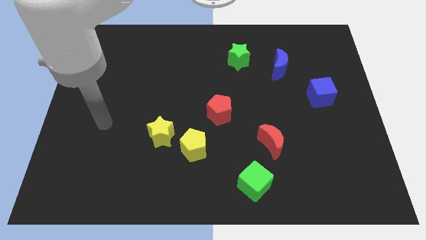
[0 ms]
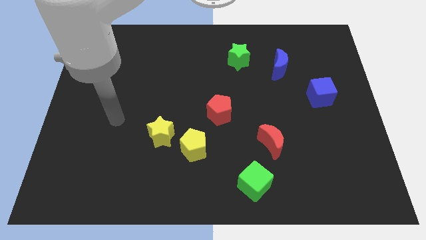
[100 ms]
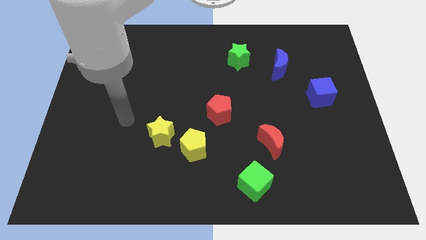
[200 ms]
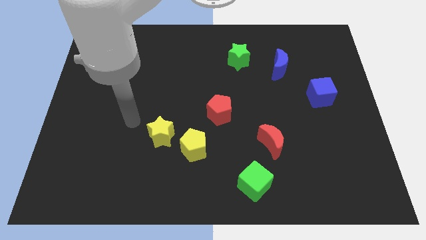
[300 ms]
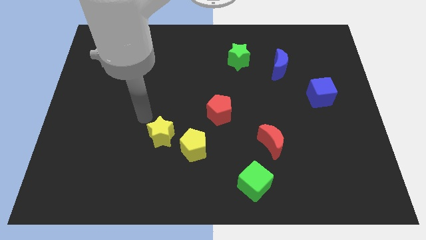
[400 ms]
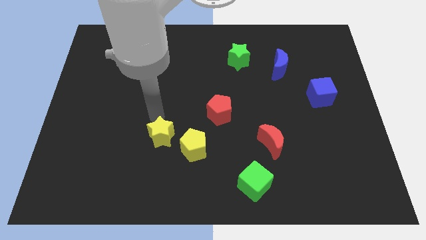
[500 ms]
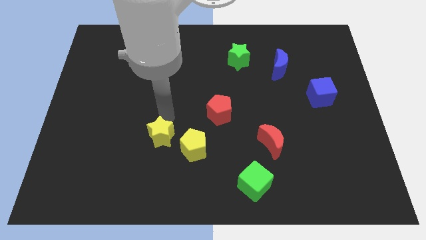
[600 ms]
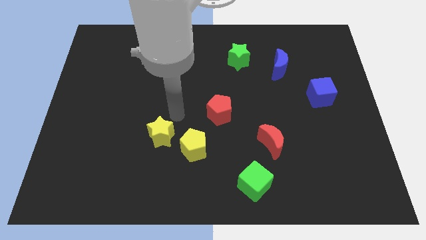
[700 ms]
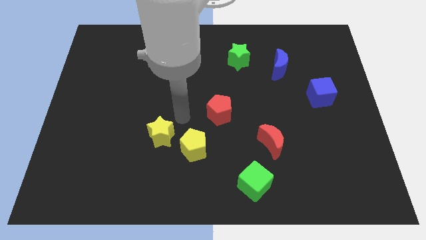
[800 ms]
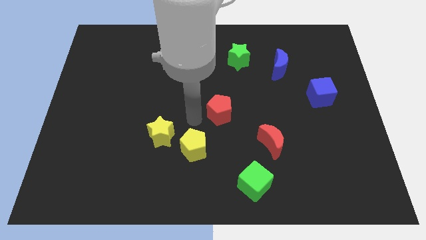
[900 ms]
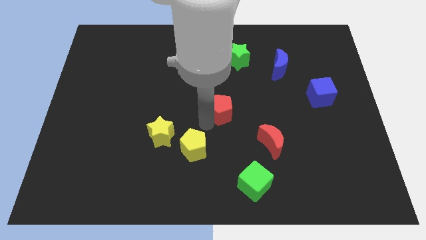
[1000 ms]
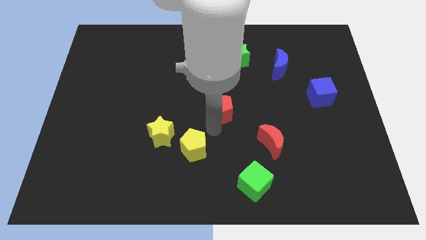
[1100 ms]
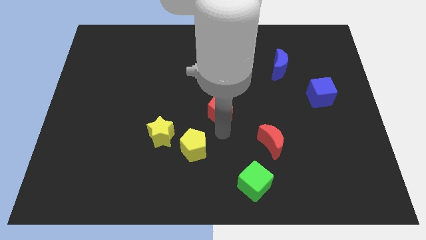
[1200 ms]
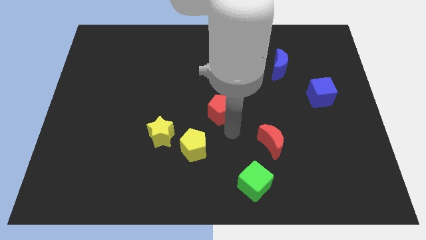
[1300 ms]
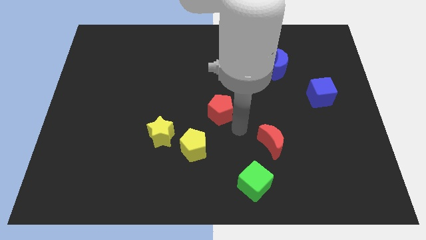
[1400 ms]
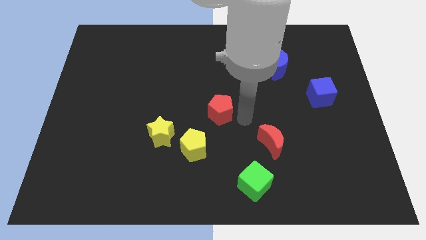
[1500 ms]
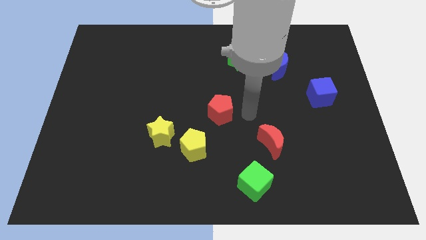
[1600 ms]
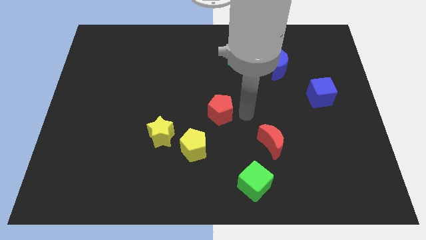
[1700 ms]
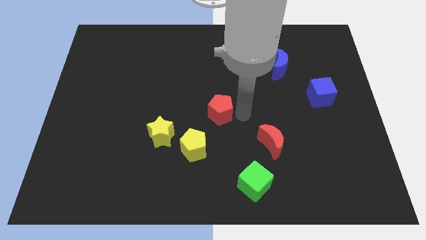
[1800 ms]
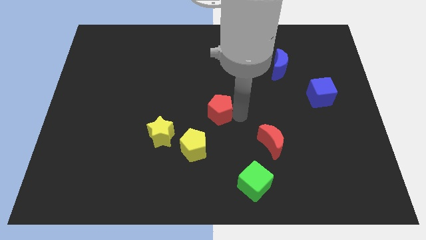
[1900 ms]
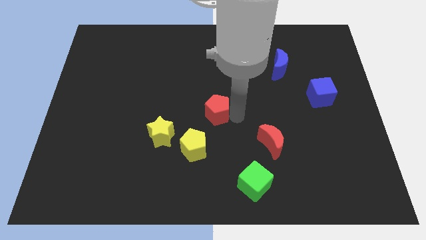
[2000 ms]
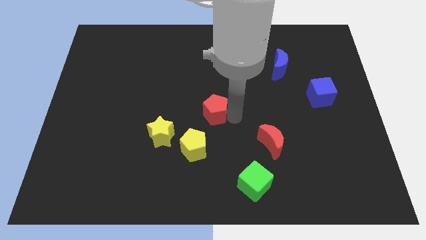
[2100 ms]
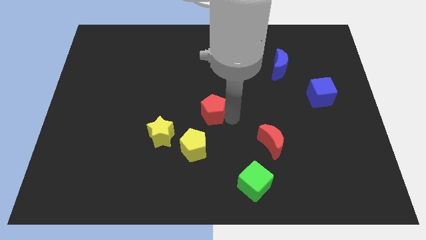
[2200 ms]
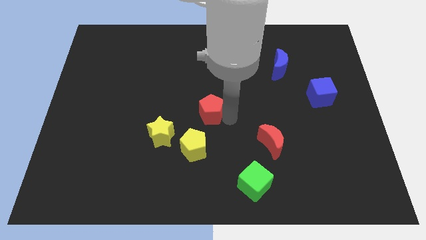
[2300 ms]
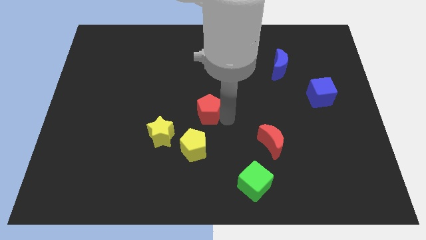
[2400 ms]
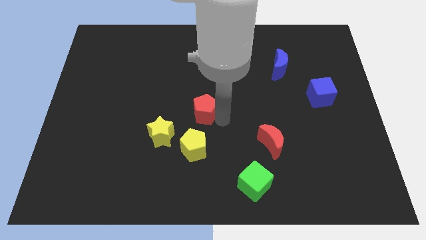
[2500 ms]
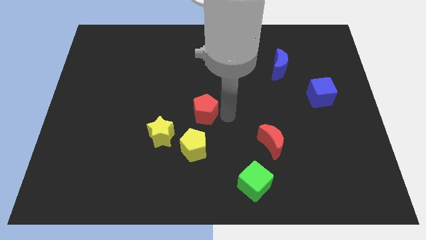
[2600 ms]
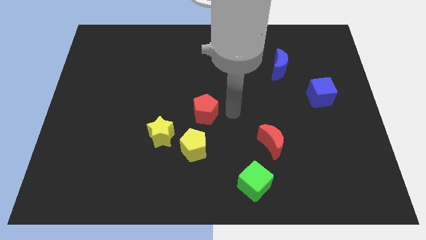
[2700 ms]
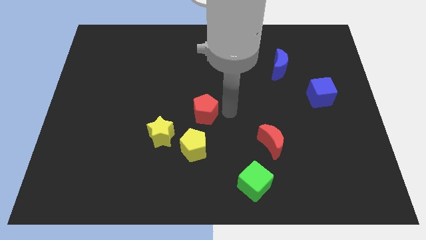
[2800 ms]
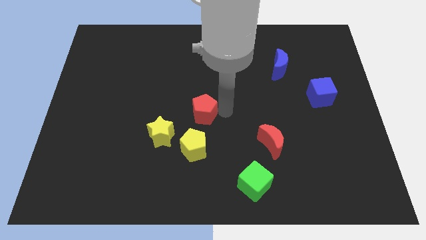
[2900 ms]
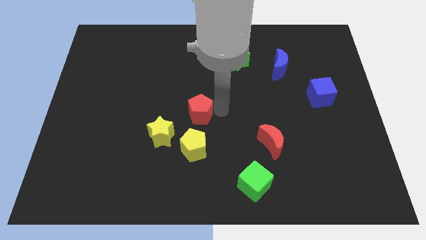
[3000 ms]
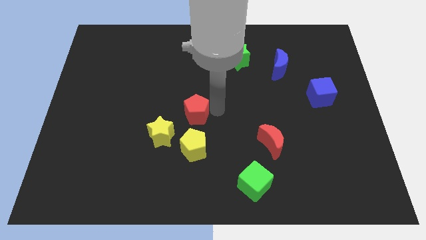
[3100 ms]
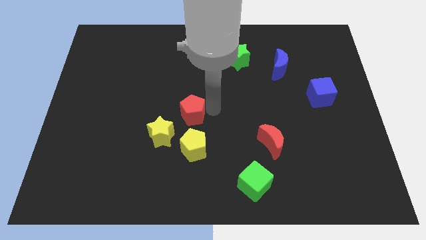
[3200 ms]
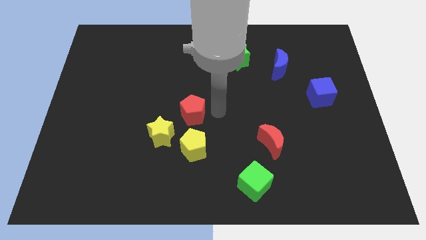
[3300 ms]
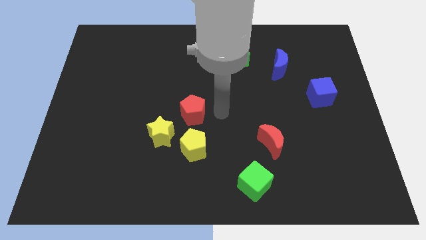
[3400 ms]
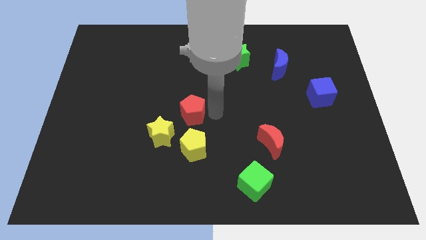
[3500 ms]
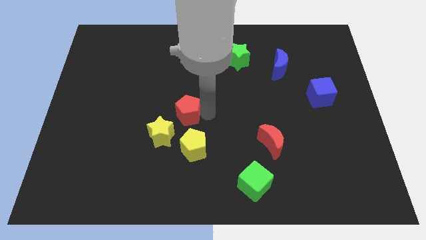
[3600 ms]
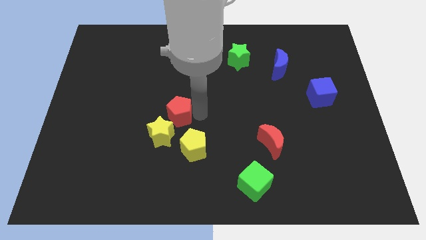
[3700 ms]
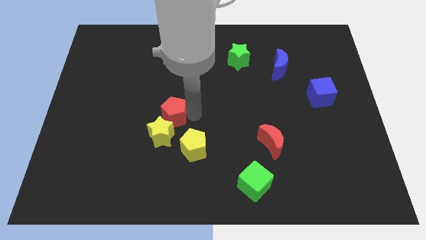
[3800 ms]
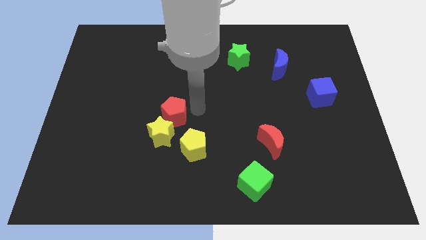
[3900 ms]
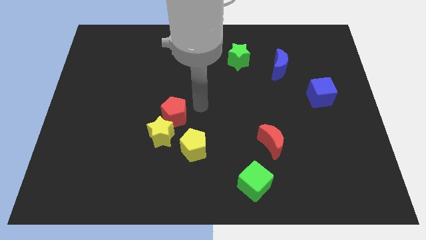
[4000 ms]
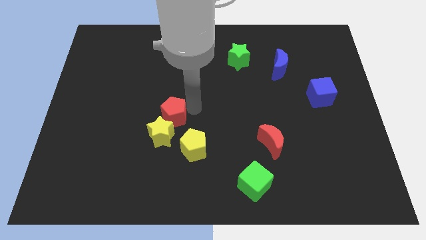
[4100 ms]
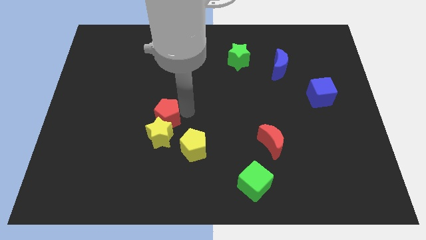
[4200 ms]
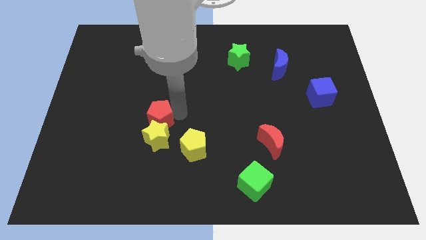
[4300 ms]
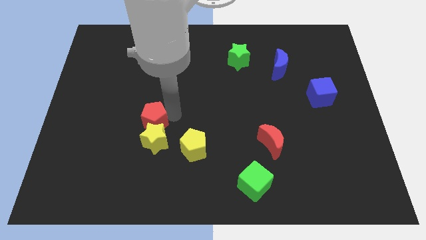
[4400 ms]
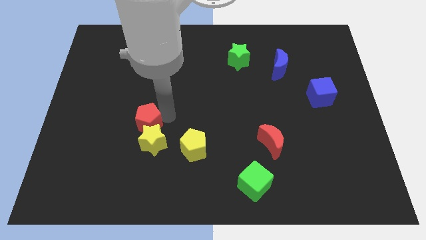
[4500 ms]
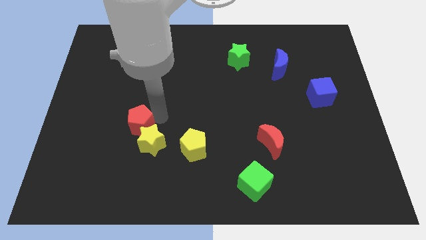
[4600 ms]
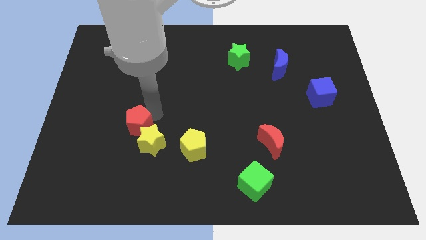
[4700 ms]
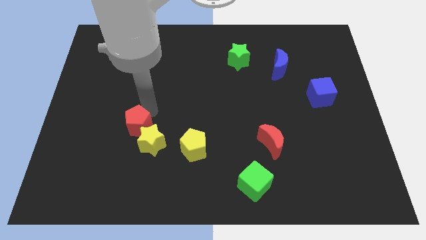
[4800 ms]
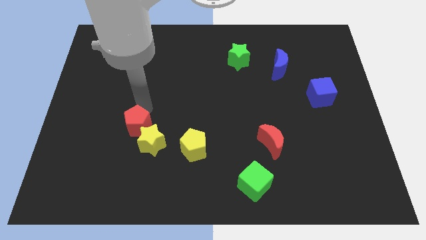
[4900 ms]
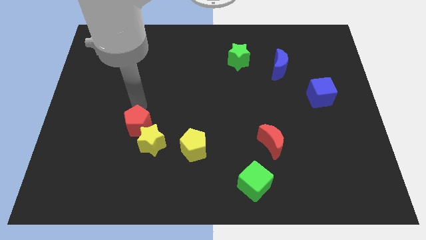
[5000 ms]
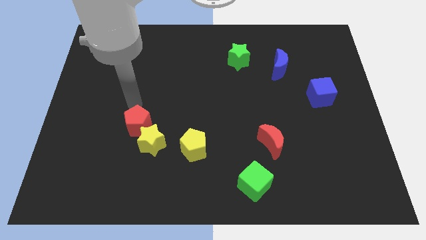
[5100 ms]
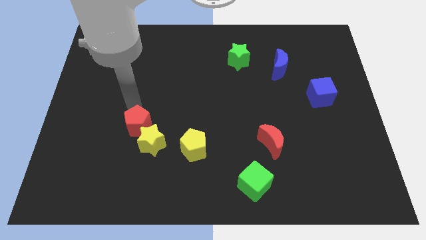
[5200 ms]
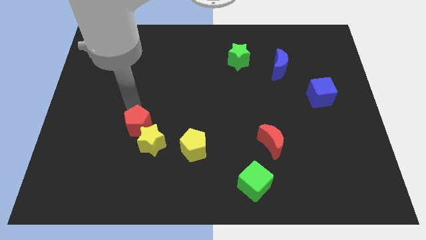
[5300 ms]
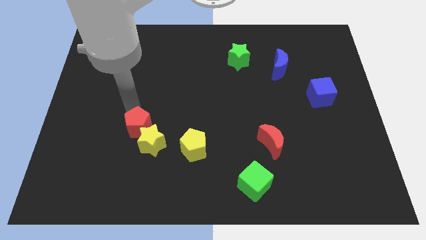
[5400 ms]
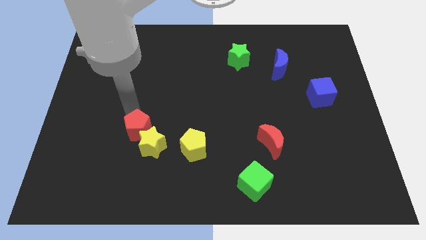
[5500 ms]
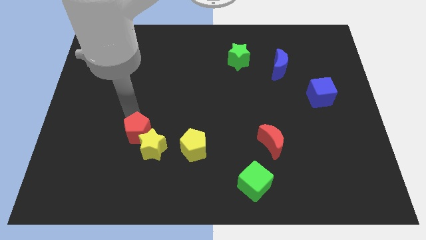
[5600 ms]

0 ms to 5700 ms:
put the red pentagon to the left side of the yellow pentagon

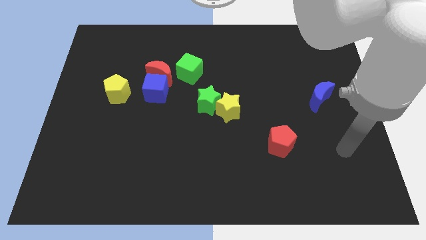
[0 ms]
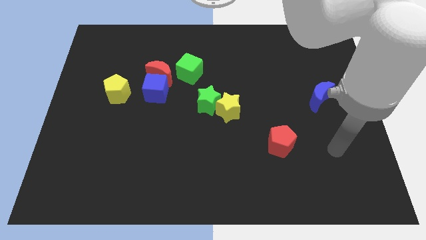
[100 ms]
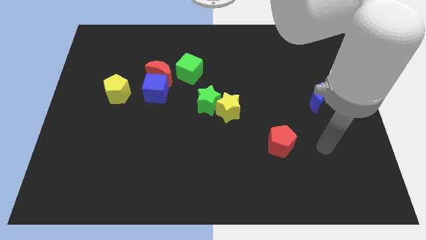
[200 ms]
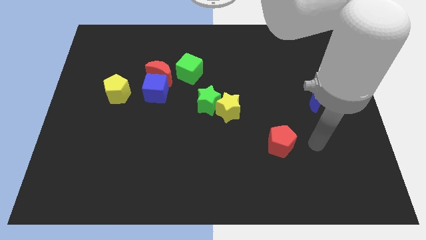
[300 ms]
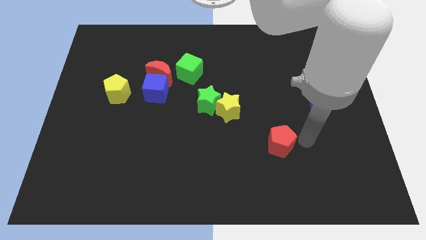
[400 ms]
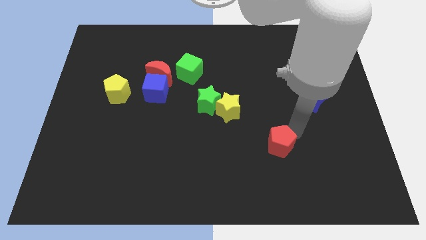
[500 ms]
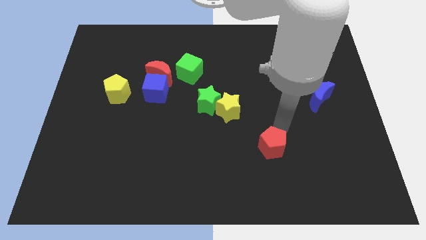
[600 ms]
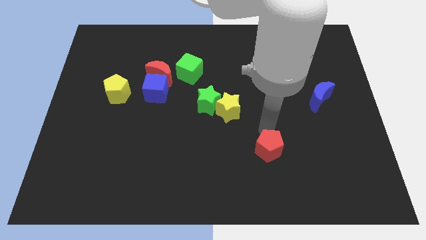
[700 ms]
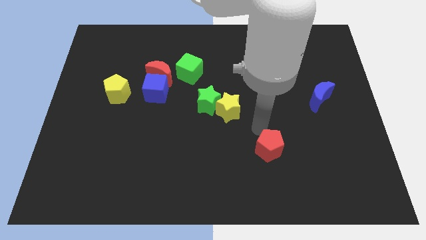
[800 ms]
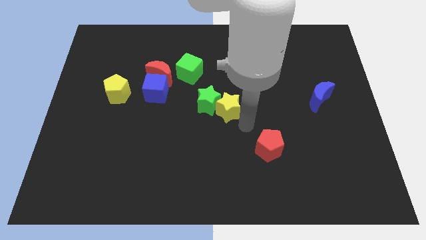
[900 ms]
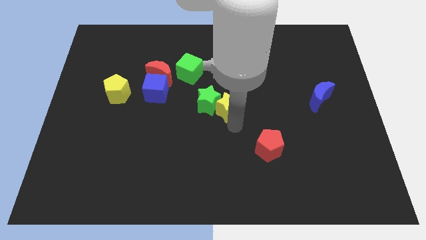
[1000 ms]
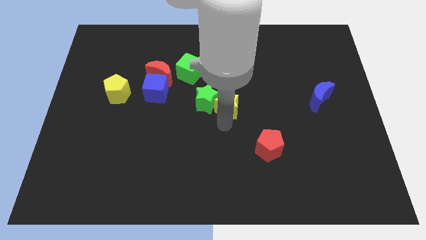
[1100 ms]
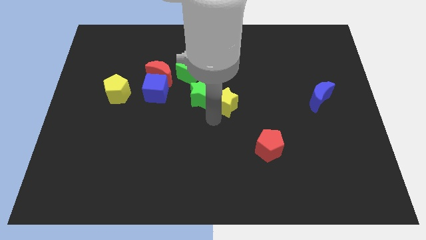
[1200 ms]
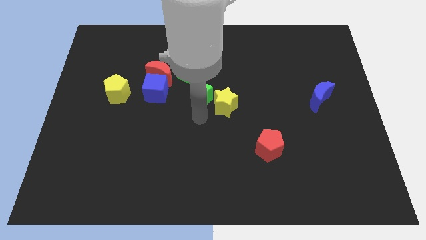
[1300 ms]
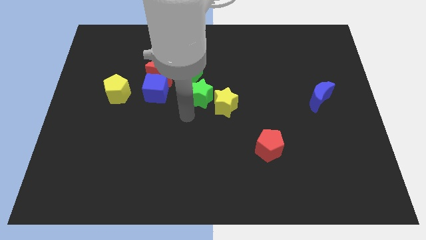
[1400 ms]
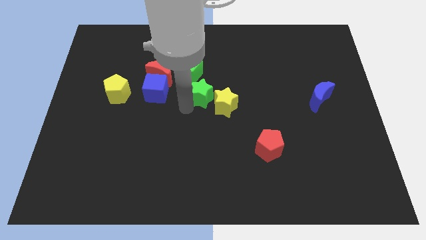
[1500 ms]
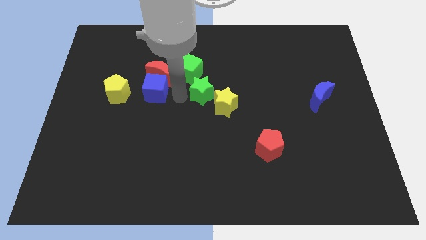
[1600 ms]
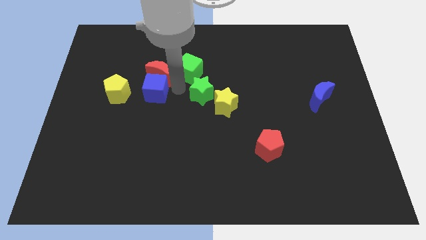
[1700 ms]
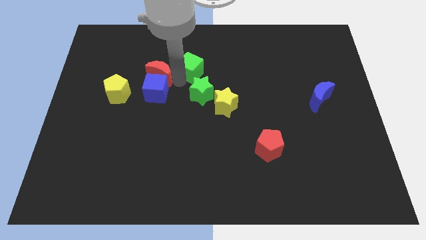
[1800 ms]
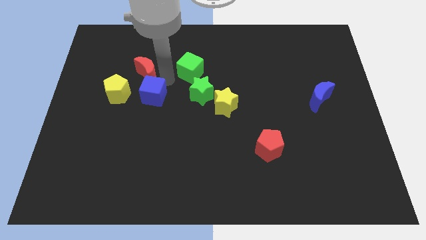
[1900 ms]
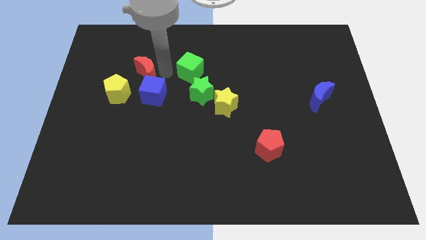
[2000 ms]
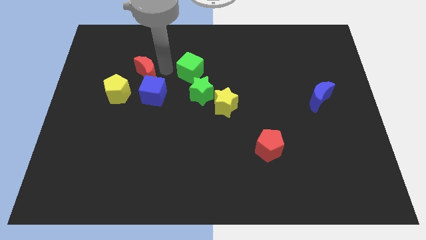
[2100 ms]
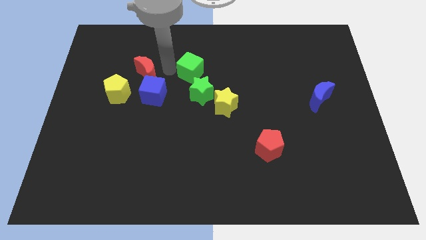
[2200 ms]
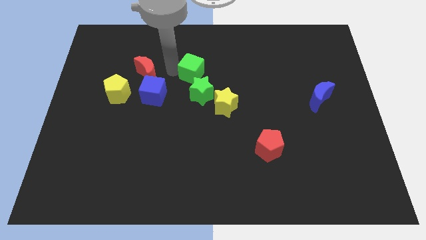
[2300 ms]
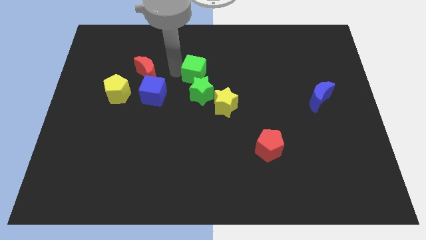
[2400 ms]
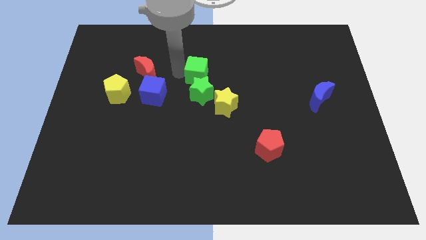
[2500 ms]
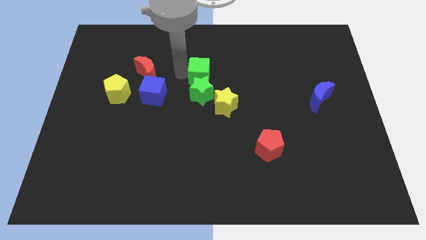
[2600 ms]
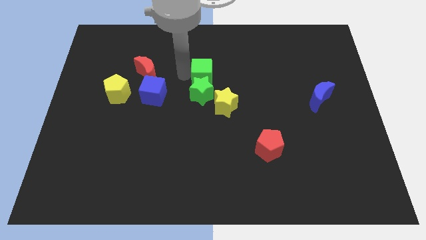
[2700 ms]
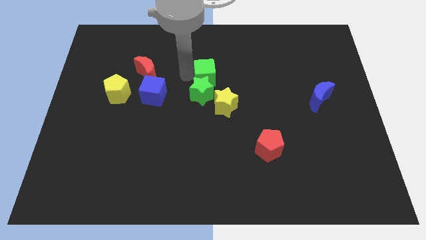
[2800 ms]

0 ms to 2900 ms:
push the green cube to the top of the yellow star
